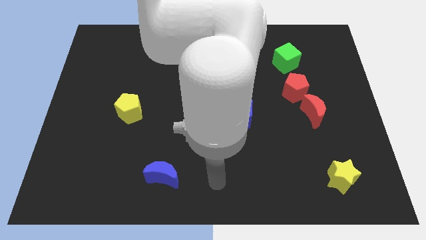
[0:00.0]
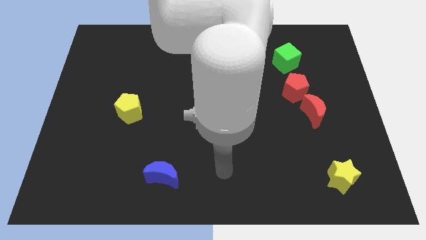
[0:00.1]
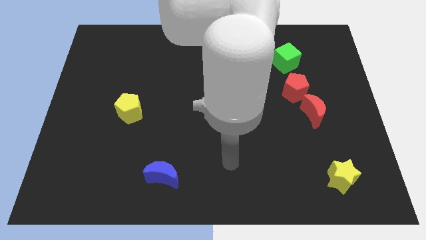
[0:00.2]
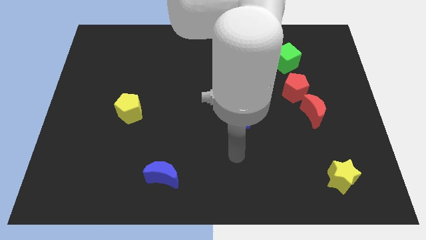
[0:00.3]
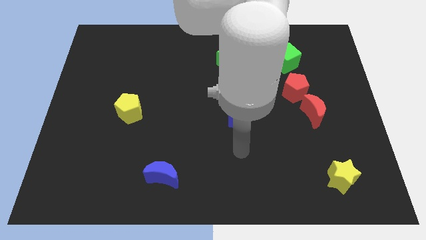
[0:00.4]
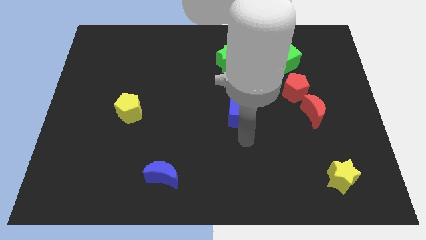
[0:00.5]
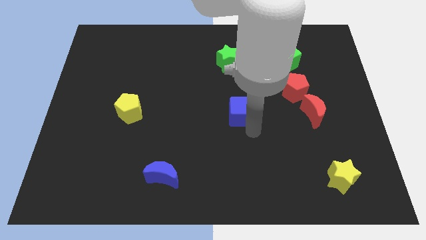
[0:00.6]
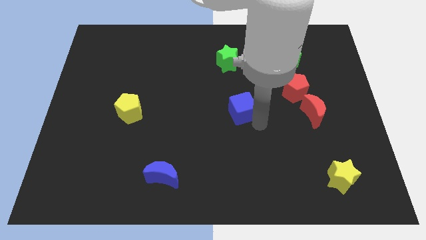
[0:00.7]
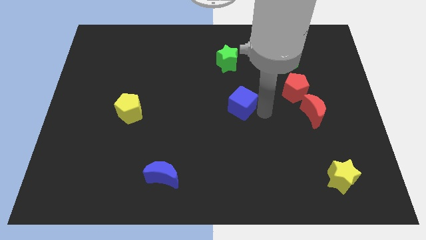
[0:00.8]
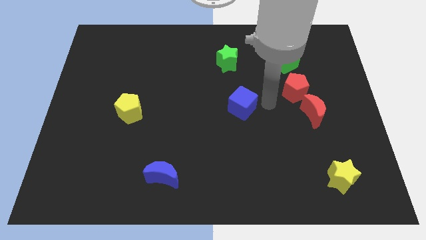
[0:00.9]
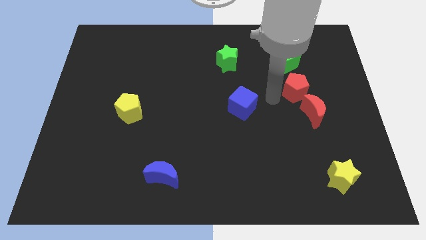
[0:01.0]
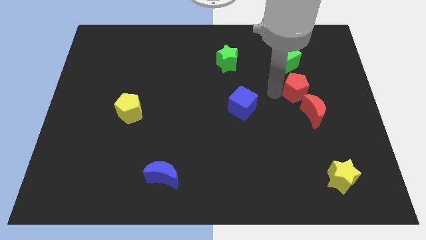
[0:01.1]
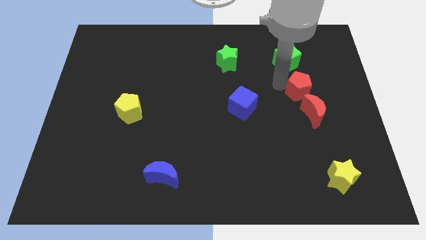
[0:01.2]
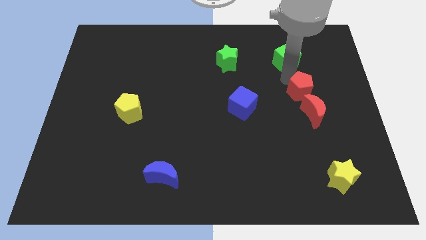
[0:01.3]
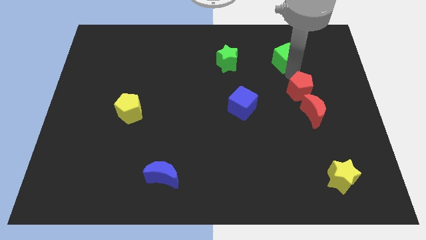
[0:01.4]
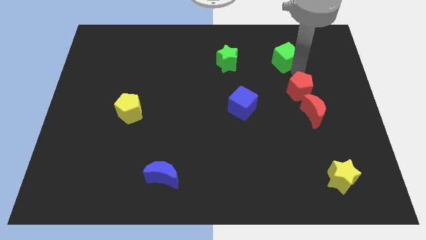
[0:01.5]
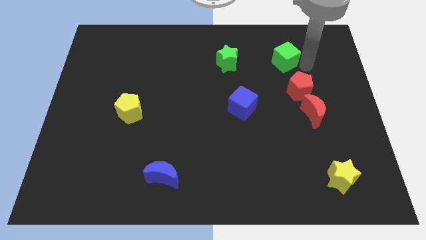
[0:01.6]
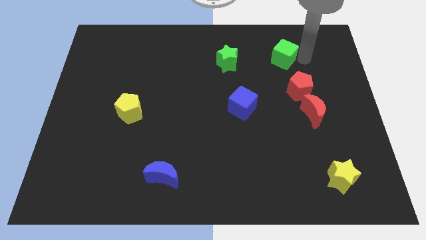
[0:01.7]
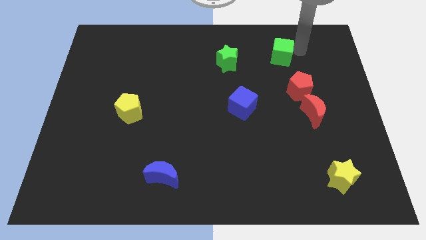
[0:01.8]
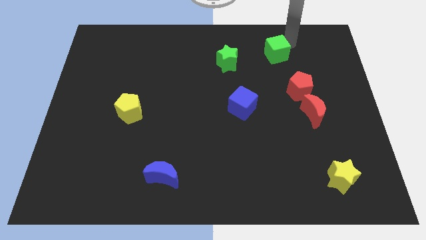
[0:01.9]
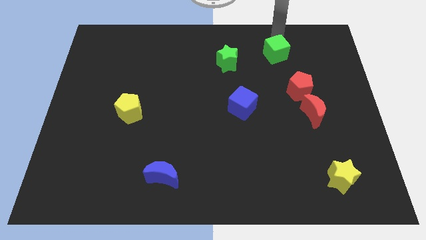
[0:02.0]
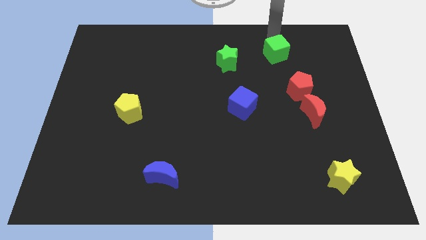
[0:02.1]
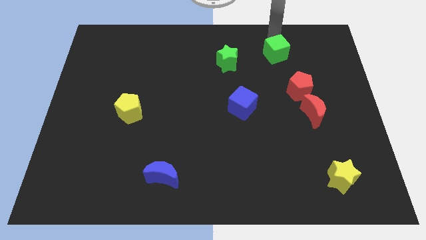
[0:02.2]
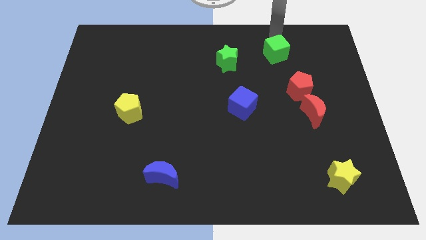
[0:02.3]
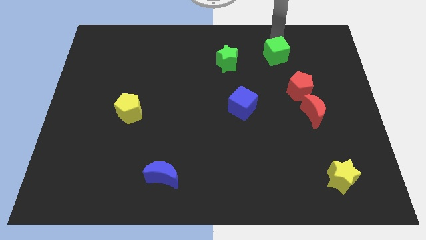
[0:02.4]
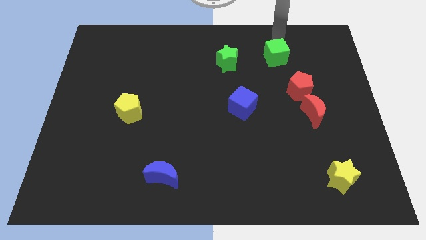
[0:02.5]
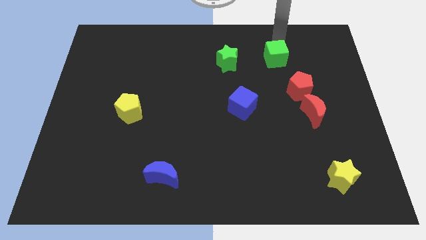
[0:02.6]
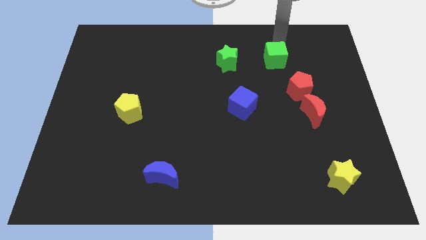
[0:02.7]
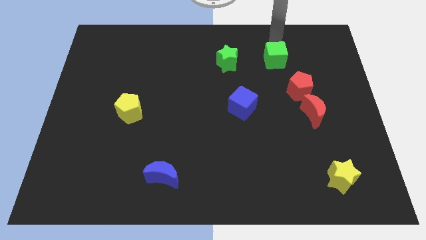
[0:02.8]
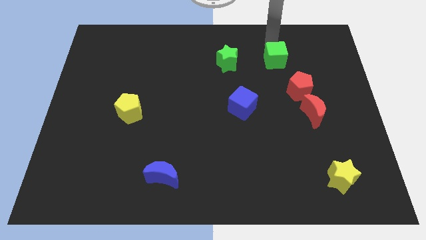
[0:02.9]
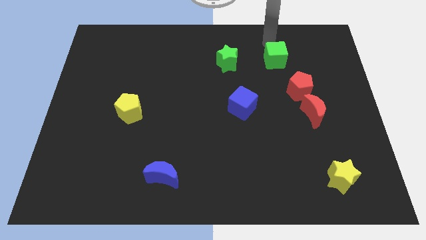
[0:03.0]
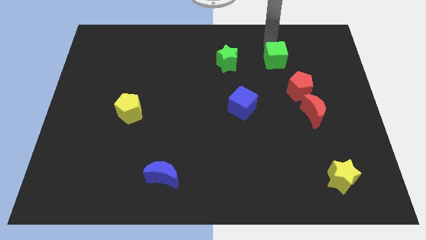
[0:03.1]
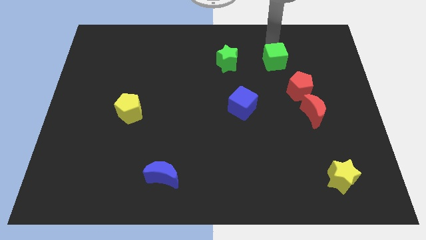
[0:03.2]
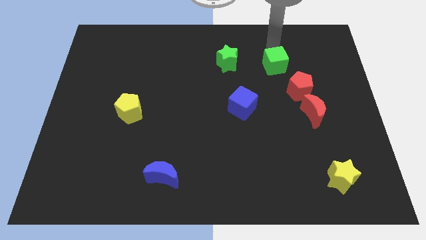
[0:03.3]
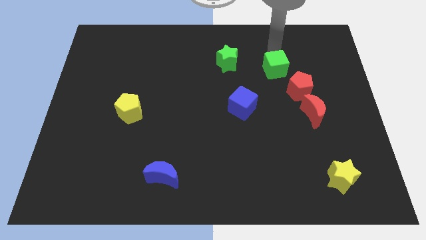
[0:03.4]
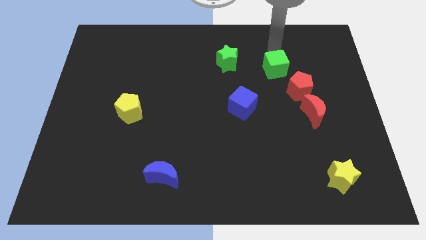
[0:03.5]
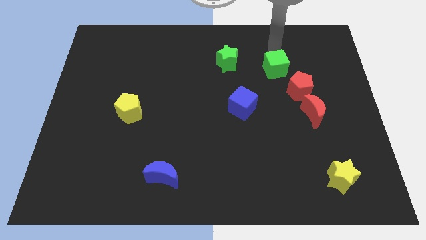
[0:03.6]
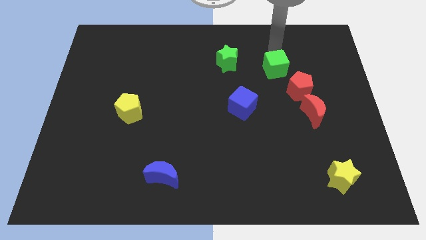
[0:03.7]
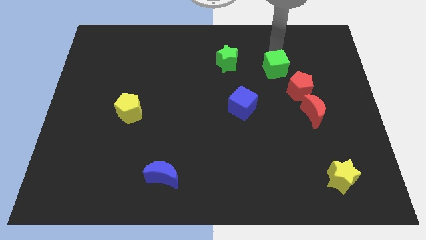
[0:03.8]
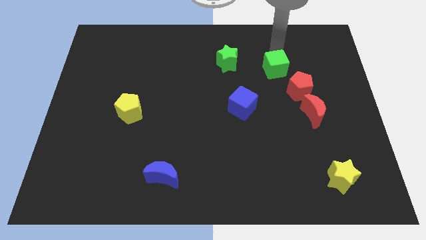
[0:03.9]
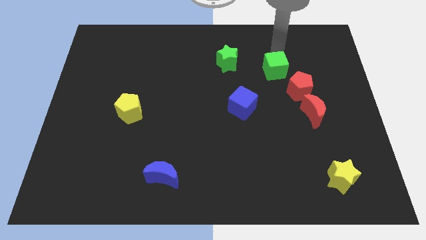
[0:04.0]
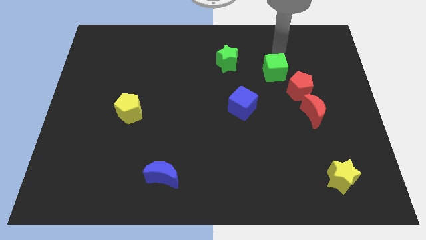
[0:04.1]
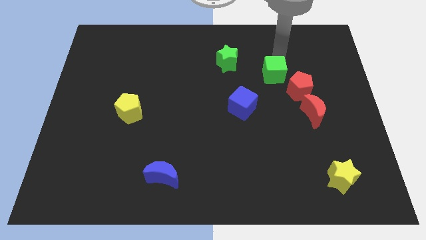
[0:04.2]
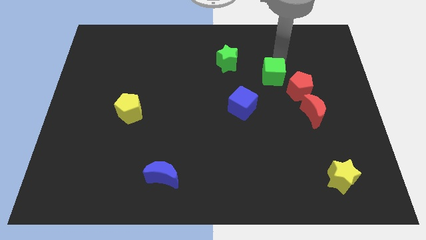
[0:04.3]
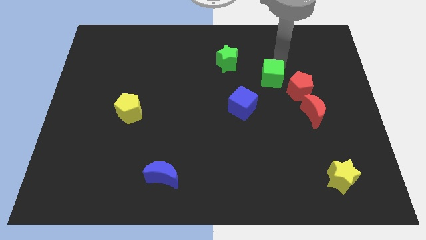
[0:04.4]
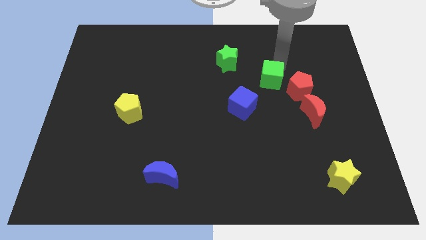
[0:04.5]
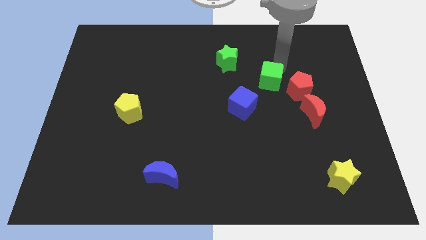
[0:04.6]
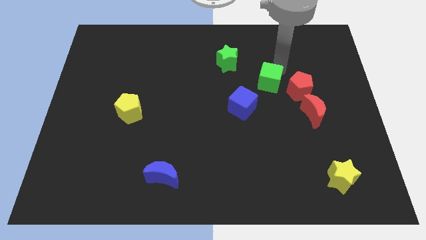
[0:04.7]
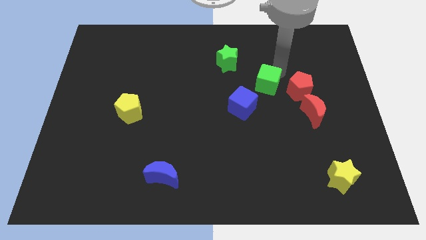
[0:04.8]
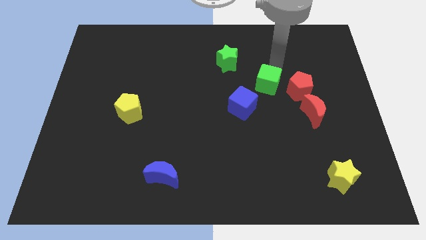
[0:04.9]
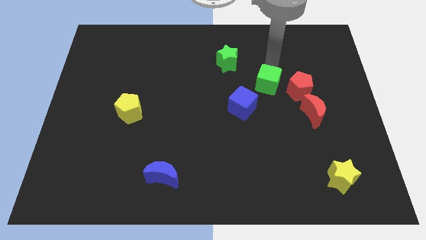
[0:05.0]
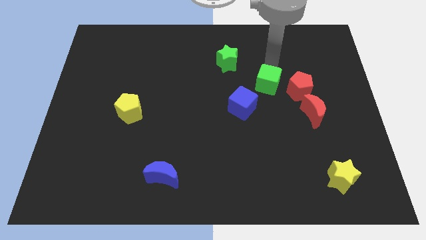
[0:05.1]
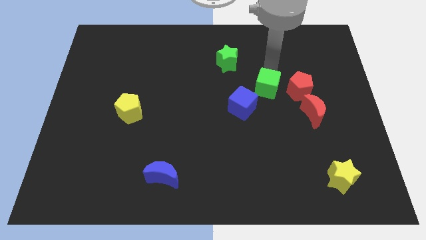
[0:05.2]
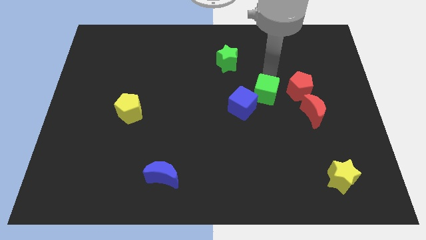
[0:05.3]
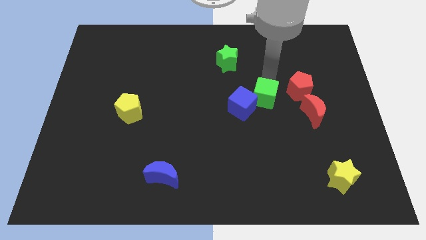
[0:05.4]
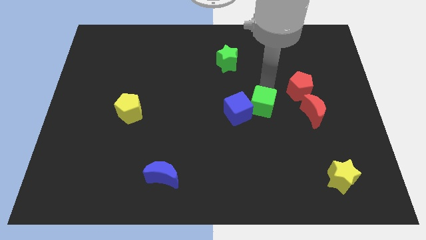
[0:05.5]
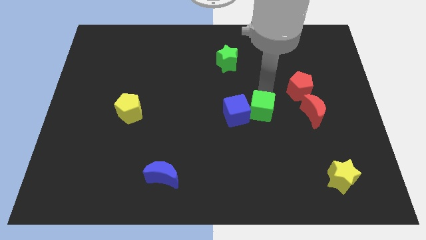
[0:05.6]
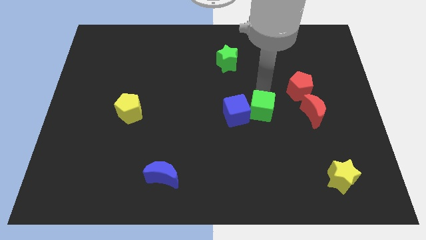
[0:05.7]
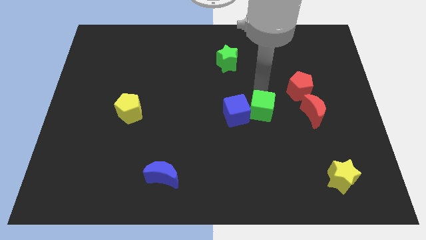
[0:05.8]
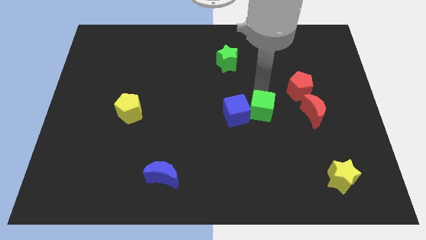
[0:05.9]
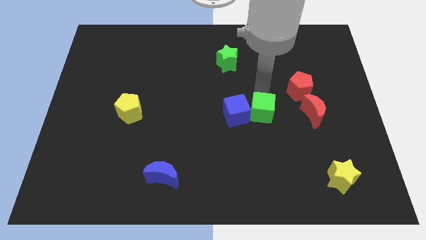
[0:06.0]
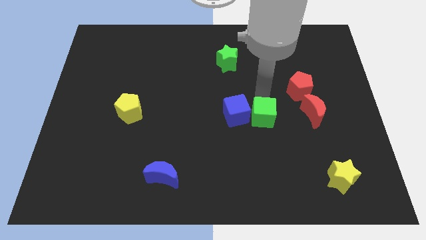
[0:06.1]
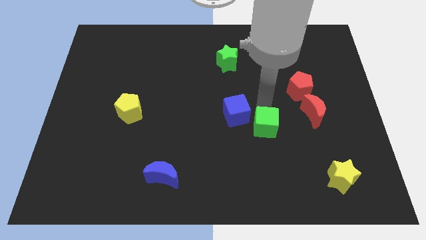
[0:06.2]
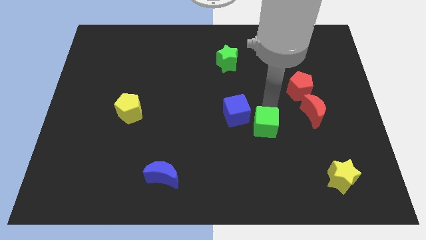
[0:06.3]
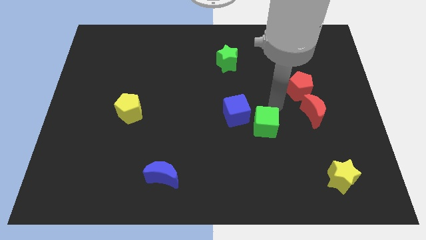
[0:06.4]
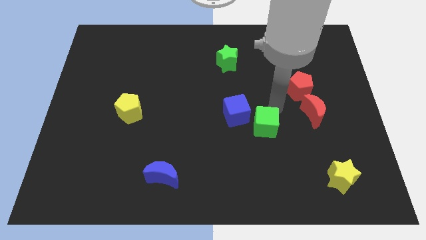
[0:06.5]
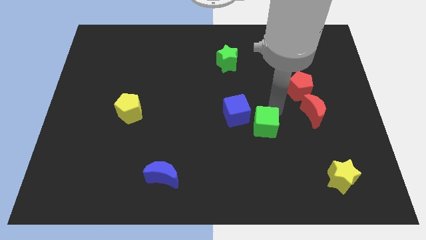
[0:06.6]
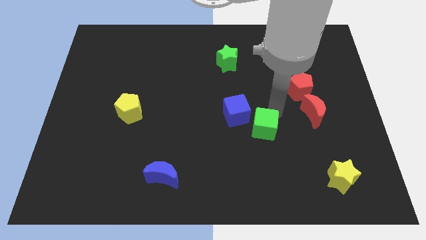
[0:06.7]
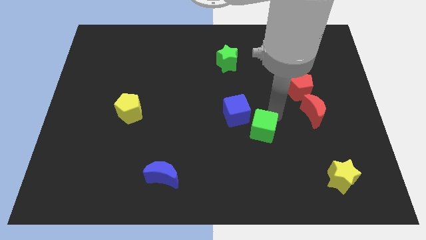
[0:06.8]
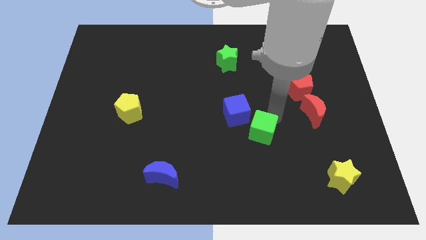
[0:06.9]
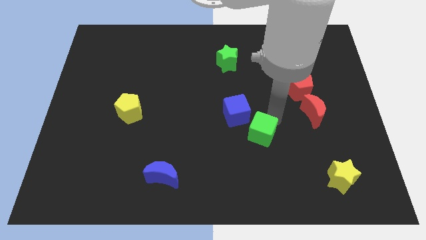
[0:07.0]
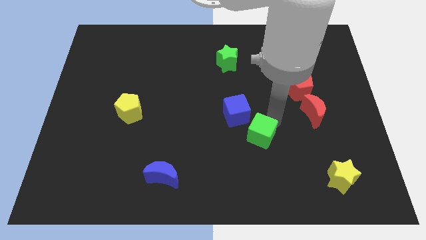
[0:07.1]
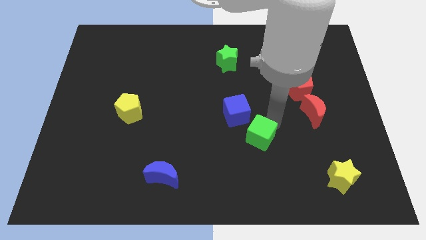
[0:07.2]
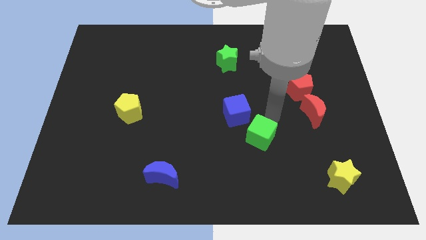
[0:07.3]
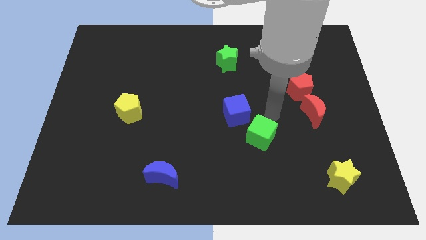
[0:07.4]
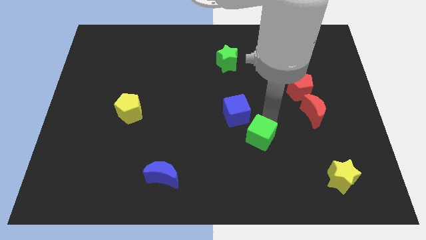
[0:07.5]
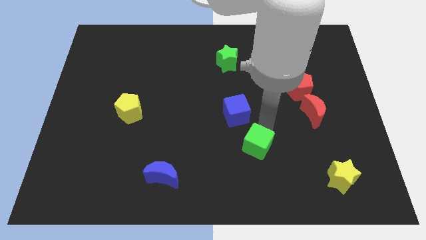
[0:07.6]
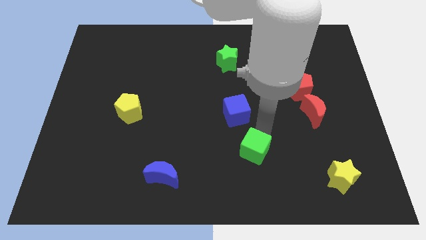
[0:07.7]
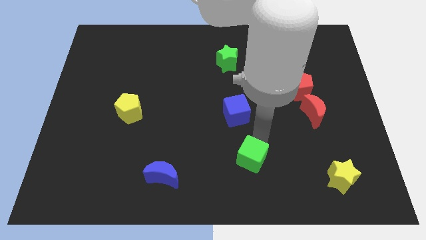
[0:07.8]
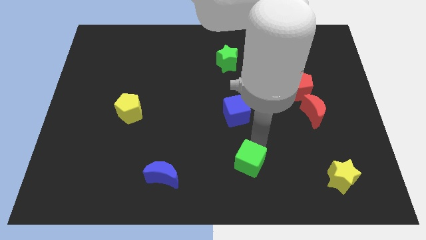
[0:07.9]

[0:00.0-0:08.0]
move the green cube to the bottom side
